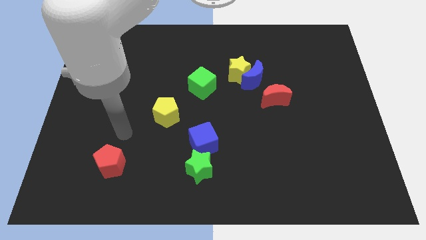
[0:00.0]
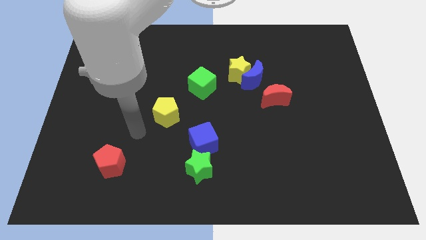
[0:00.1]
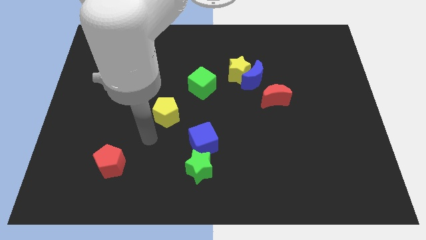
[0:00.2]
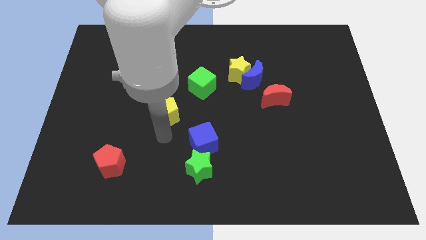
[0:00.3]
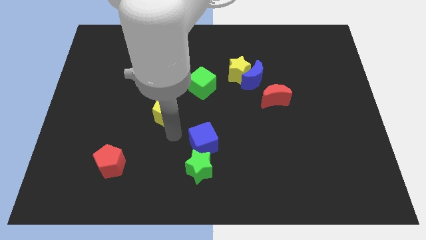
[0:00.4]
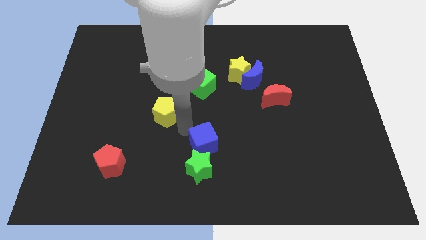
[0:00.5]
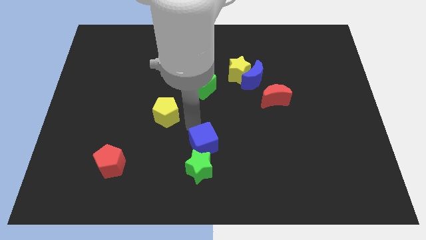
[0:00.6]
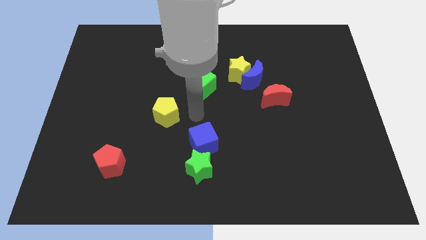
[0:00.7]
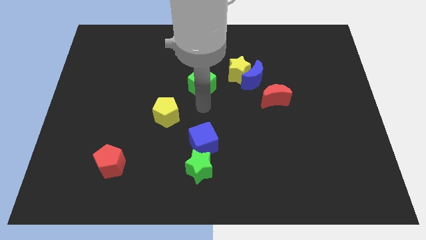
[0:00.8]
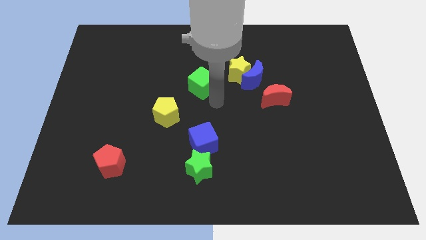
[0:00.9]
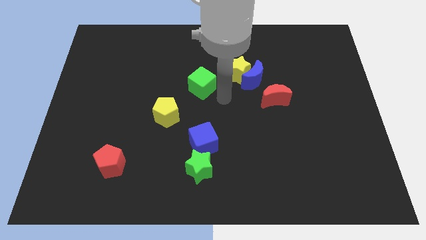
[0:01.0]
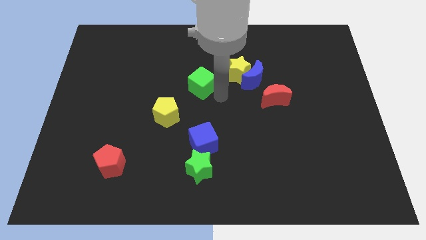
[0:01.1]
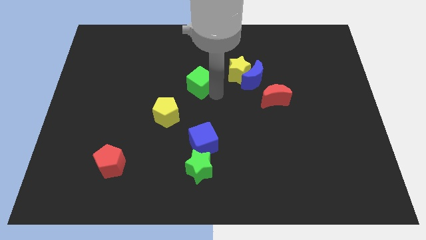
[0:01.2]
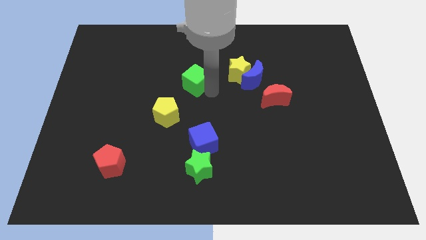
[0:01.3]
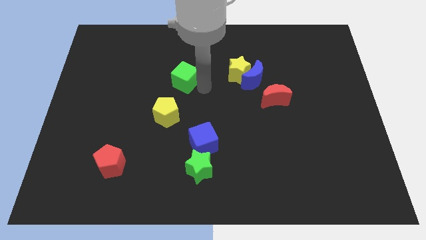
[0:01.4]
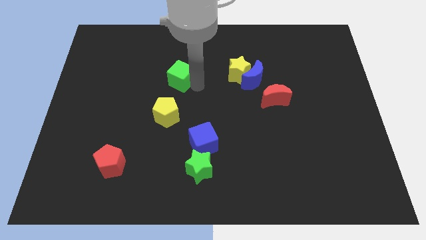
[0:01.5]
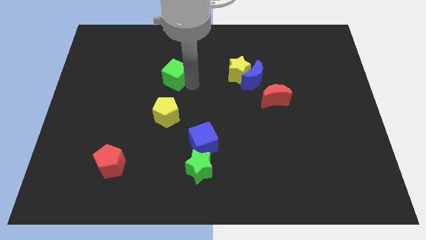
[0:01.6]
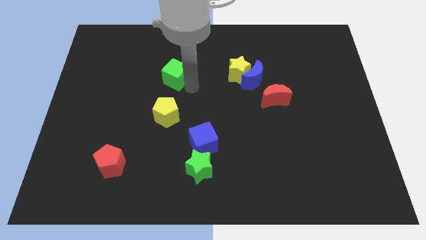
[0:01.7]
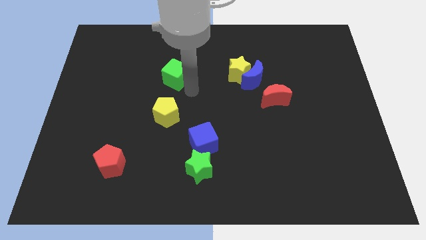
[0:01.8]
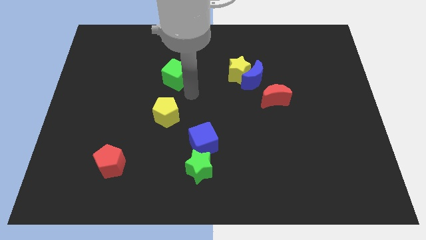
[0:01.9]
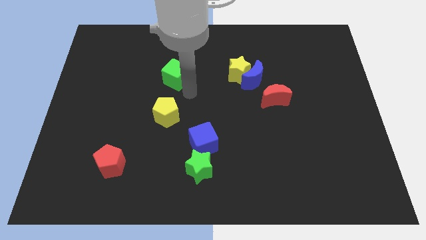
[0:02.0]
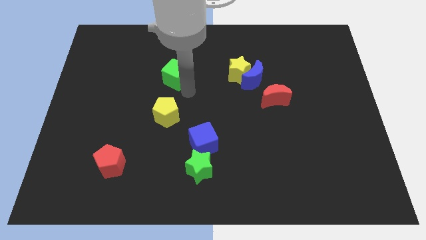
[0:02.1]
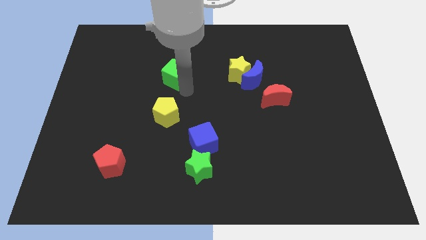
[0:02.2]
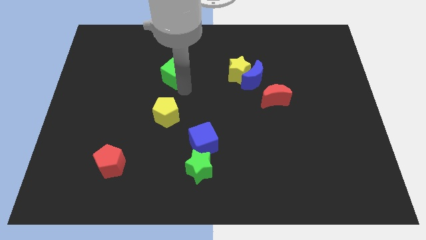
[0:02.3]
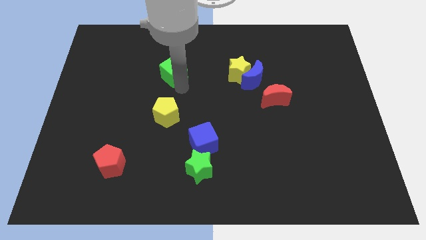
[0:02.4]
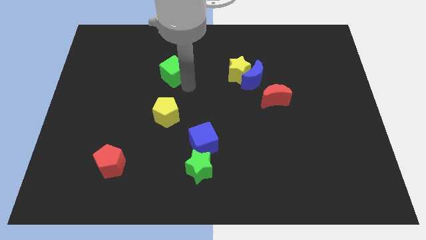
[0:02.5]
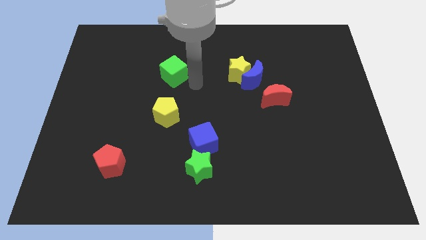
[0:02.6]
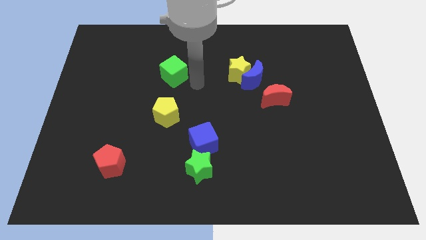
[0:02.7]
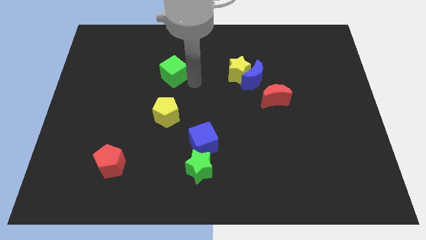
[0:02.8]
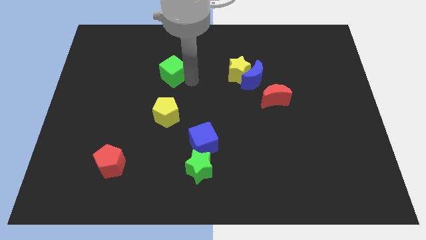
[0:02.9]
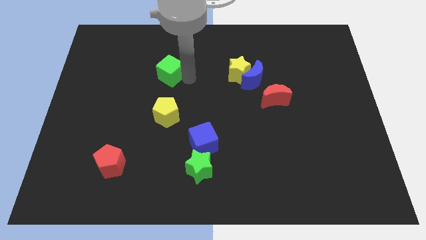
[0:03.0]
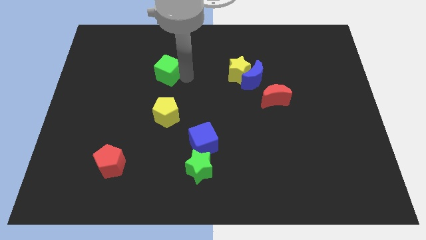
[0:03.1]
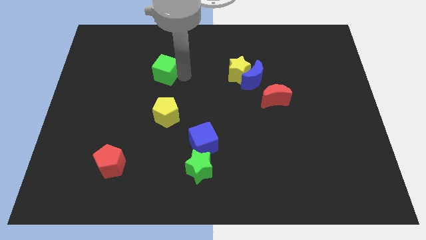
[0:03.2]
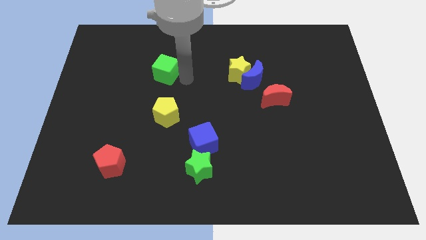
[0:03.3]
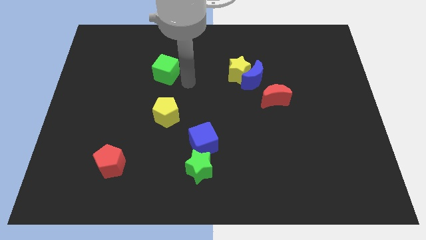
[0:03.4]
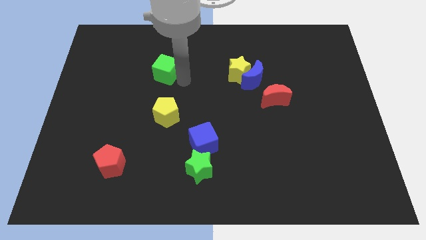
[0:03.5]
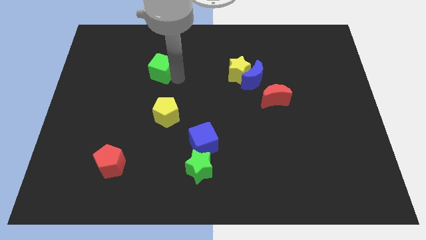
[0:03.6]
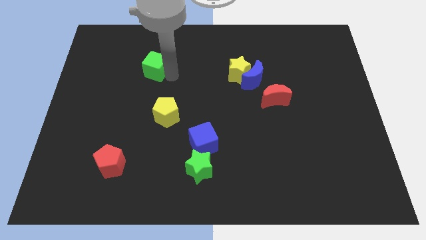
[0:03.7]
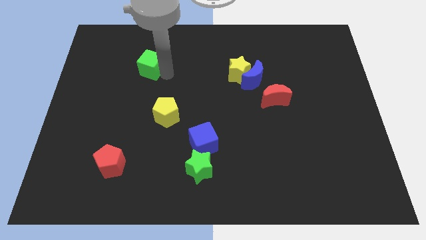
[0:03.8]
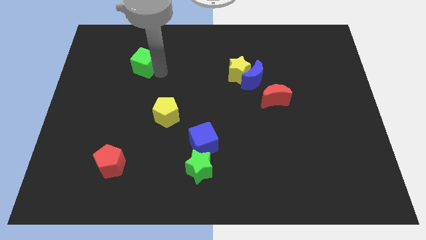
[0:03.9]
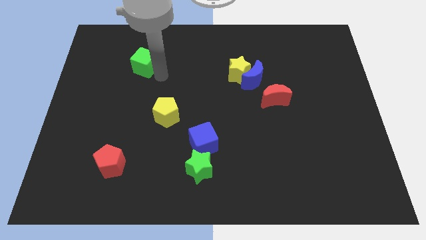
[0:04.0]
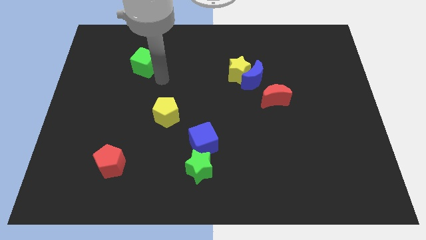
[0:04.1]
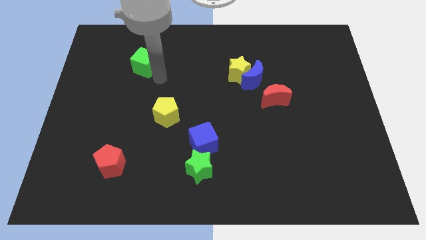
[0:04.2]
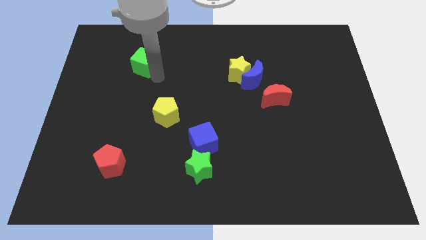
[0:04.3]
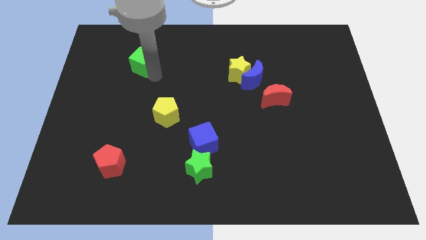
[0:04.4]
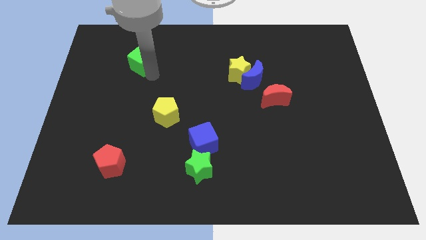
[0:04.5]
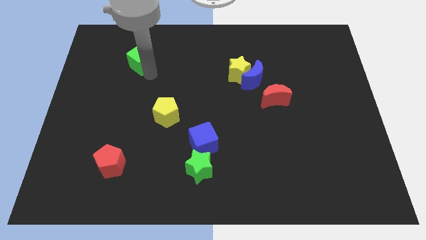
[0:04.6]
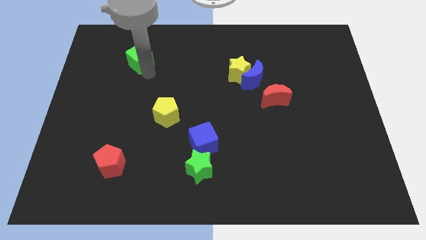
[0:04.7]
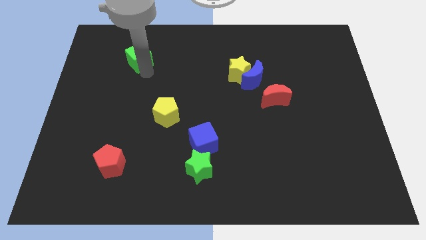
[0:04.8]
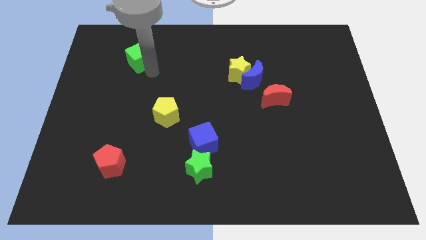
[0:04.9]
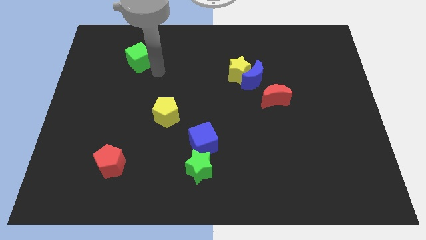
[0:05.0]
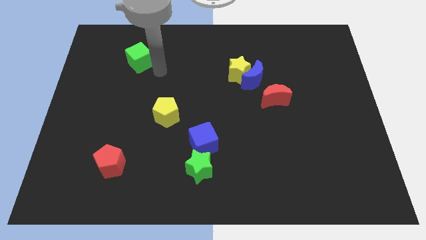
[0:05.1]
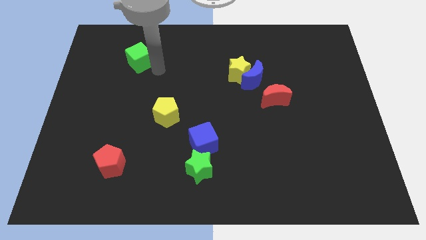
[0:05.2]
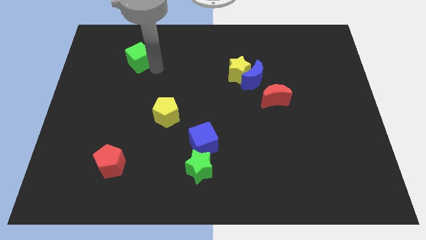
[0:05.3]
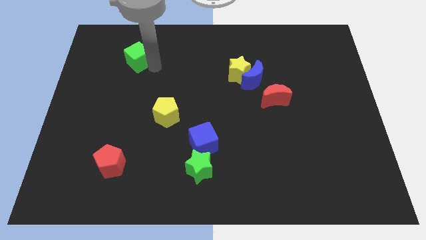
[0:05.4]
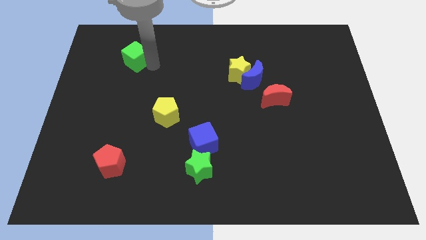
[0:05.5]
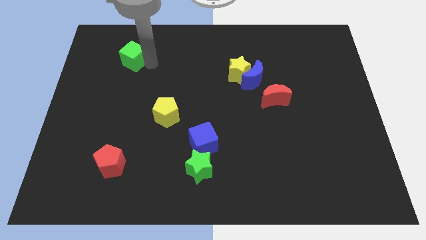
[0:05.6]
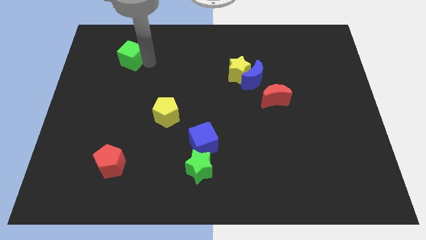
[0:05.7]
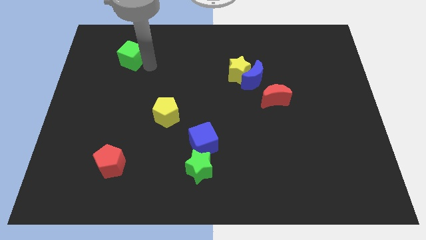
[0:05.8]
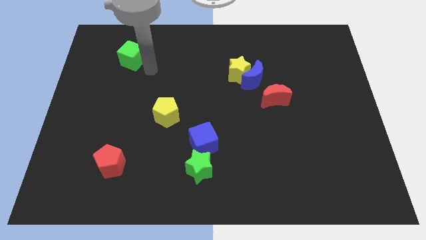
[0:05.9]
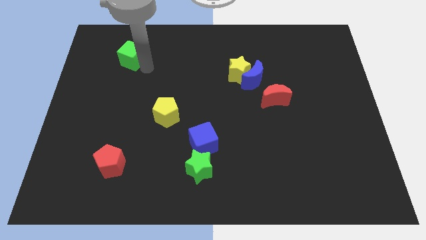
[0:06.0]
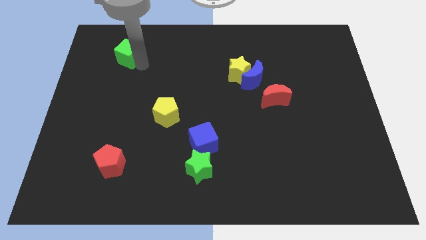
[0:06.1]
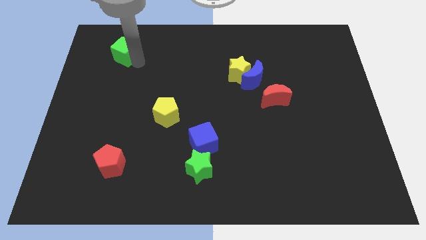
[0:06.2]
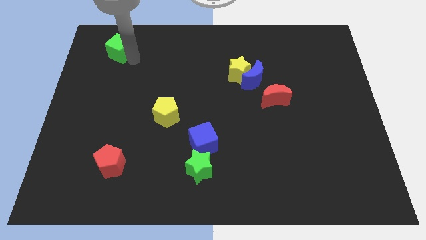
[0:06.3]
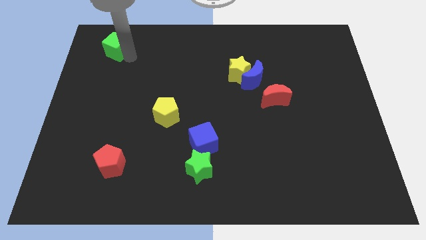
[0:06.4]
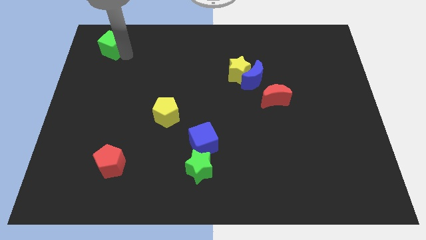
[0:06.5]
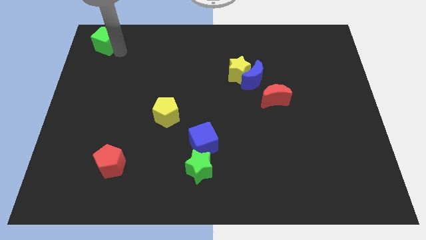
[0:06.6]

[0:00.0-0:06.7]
push the green cube to the upper left corner
